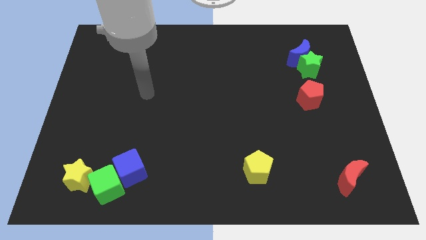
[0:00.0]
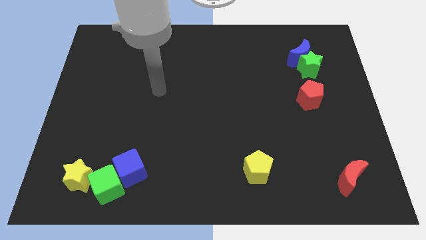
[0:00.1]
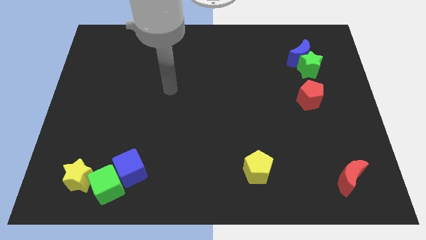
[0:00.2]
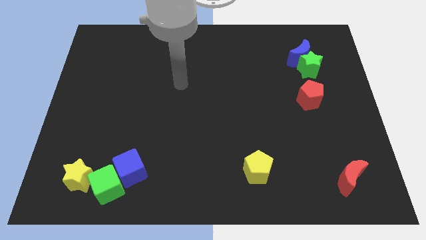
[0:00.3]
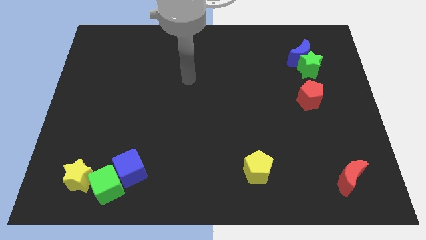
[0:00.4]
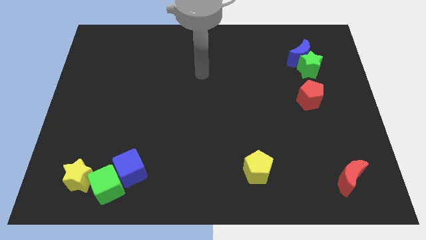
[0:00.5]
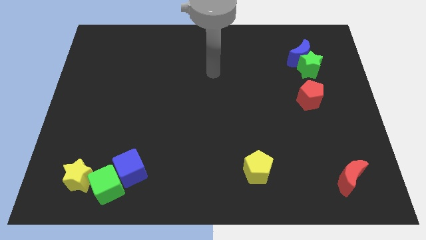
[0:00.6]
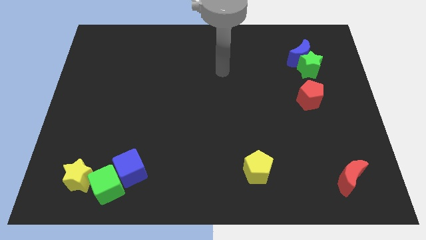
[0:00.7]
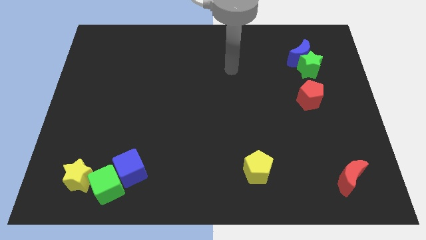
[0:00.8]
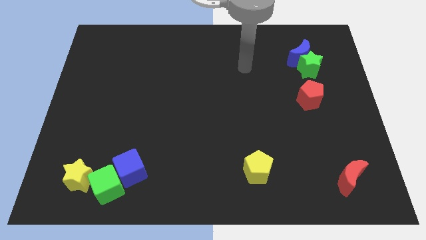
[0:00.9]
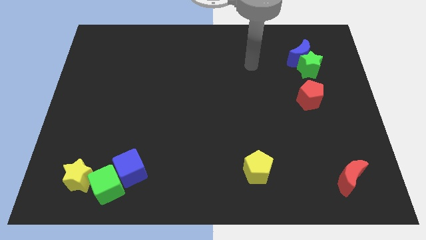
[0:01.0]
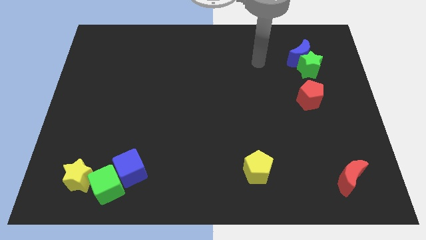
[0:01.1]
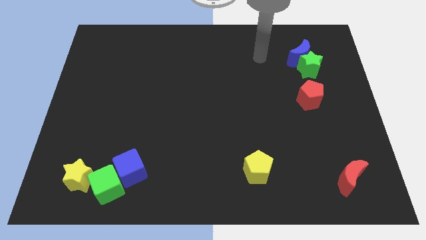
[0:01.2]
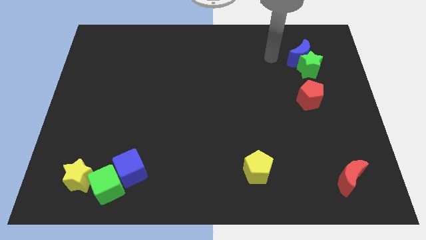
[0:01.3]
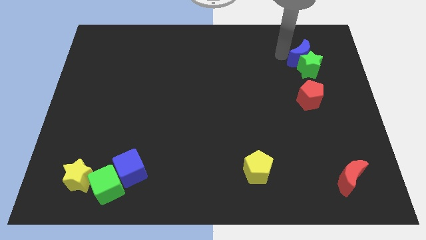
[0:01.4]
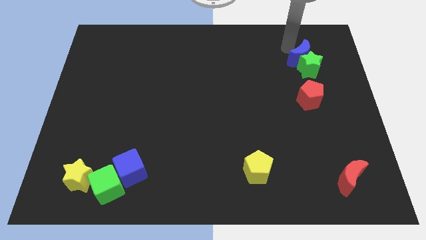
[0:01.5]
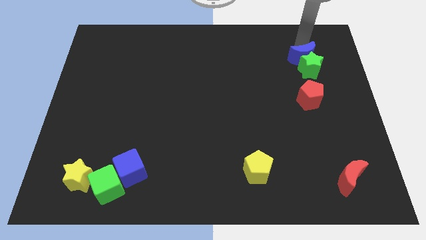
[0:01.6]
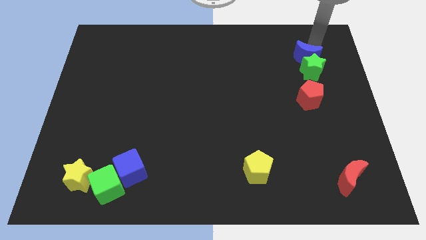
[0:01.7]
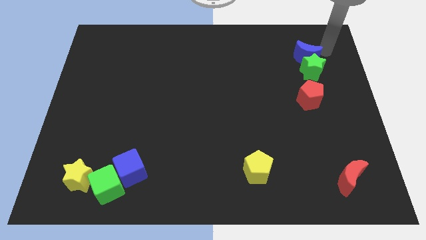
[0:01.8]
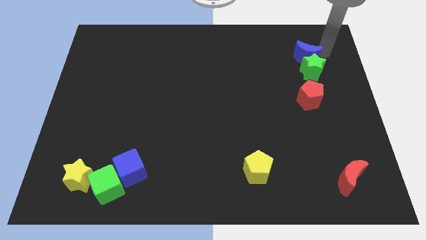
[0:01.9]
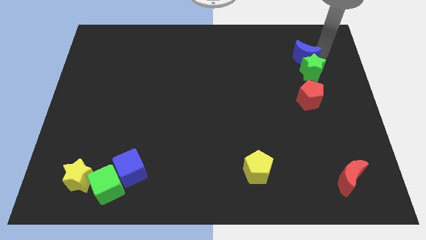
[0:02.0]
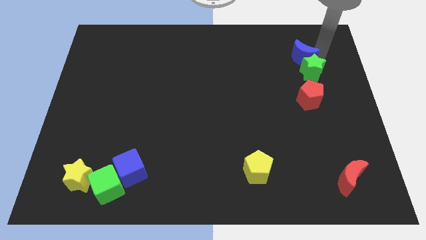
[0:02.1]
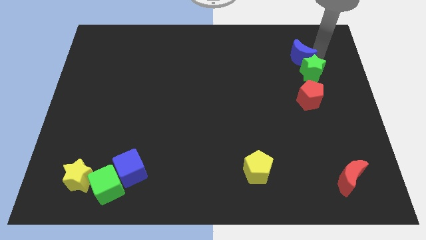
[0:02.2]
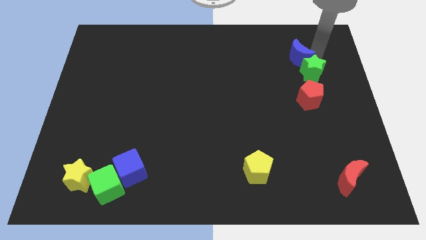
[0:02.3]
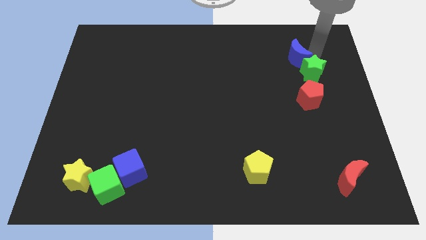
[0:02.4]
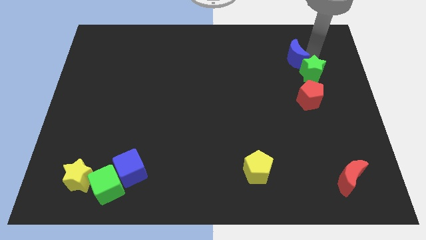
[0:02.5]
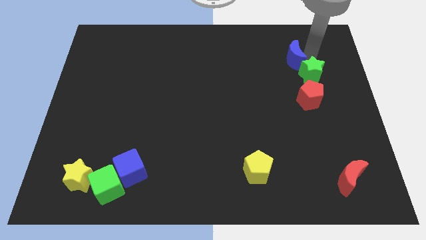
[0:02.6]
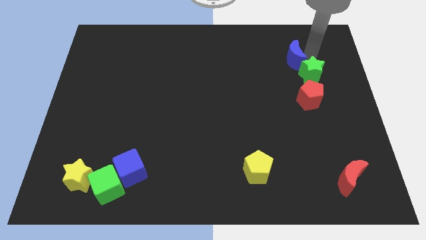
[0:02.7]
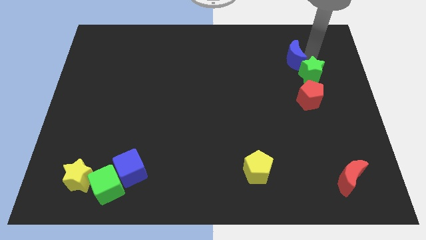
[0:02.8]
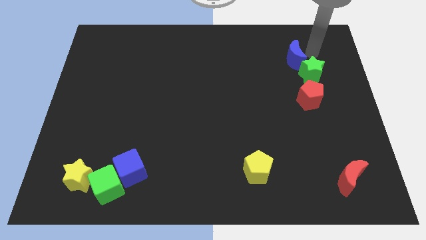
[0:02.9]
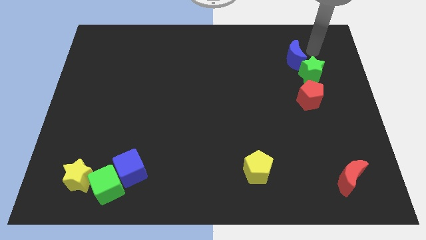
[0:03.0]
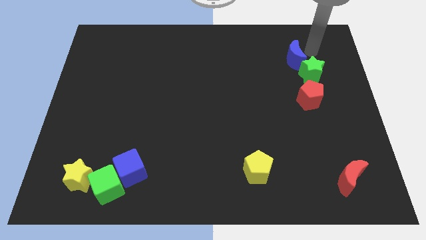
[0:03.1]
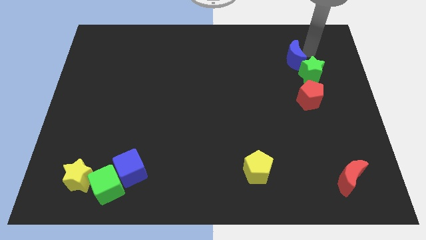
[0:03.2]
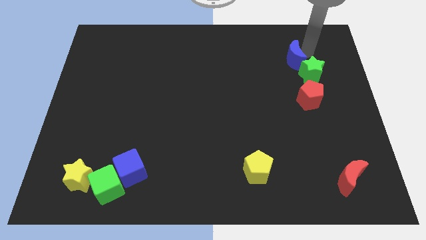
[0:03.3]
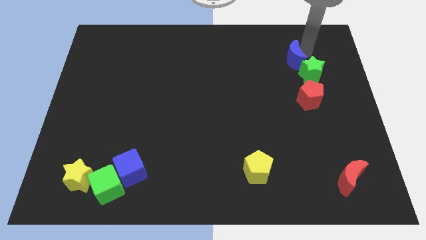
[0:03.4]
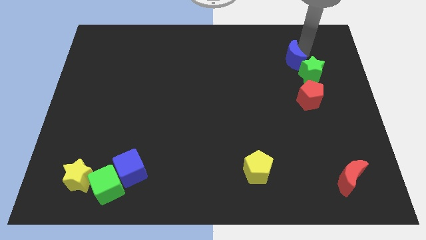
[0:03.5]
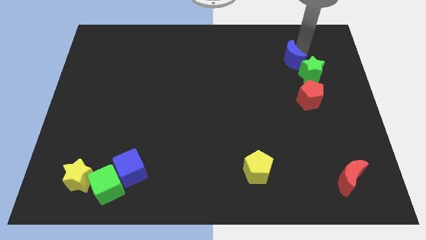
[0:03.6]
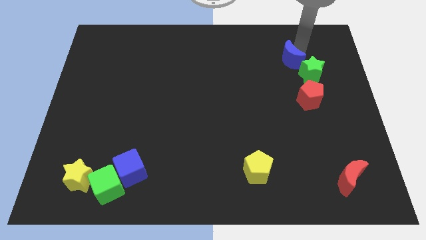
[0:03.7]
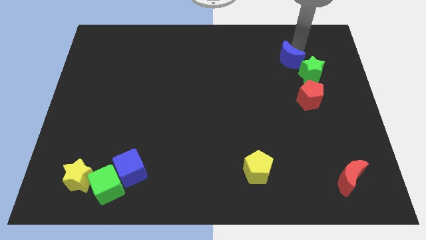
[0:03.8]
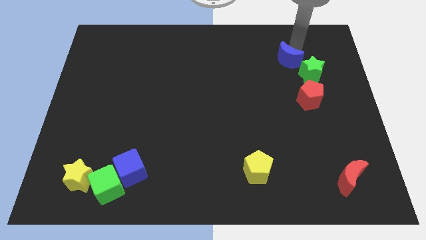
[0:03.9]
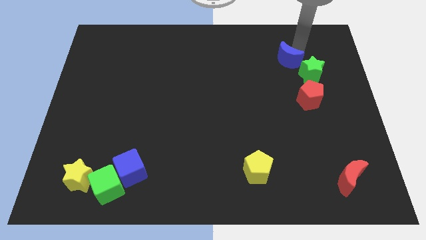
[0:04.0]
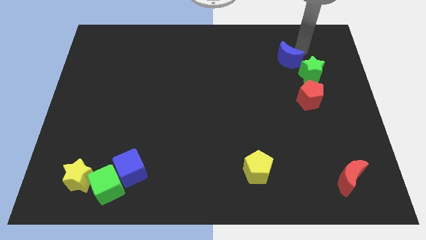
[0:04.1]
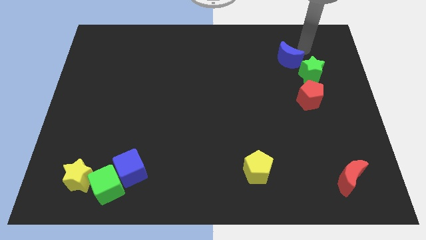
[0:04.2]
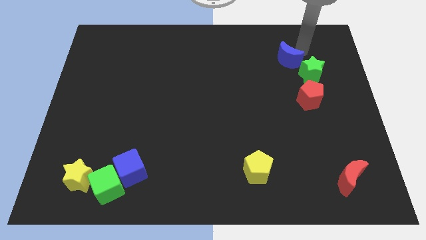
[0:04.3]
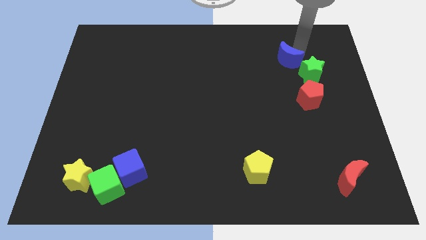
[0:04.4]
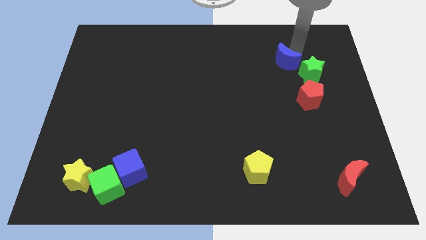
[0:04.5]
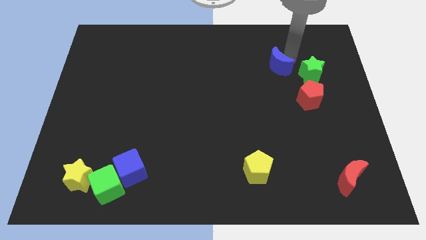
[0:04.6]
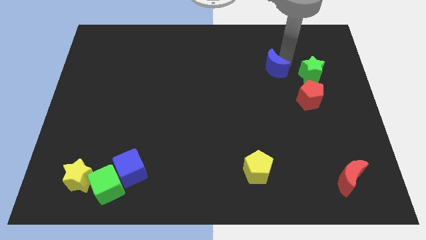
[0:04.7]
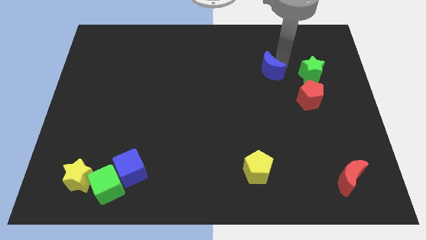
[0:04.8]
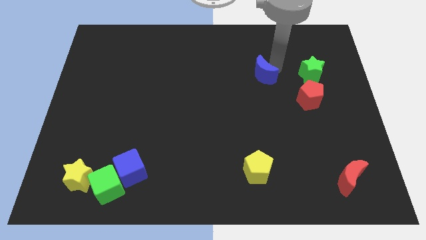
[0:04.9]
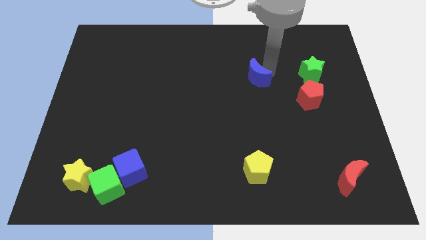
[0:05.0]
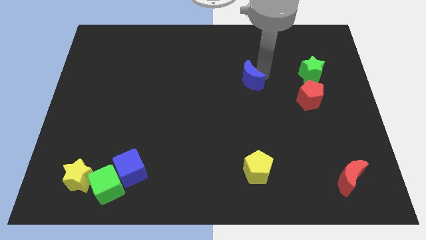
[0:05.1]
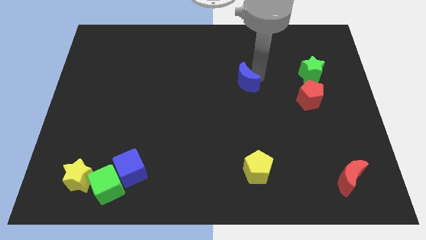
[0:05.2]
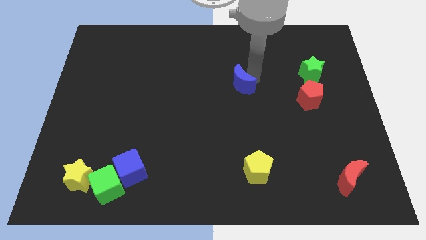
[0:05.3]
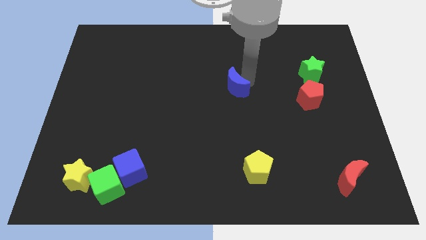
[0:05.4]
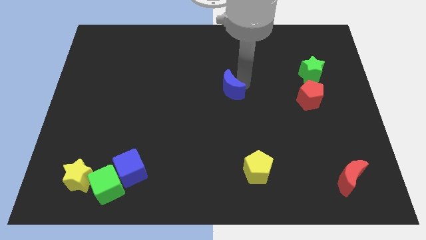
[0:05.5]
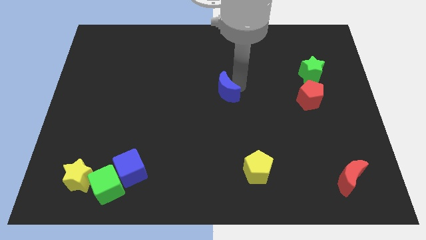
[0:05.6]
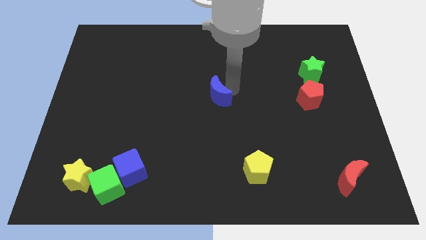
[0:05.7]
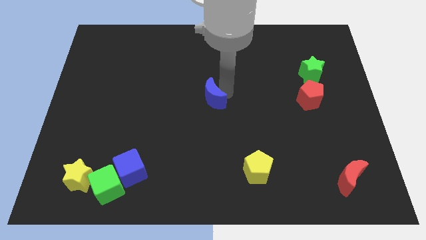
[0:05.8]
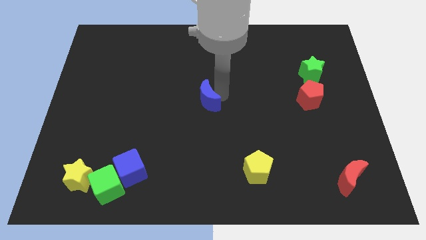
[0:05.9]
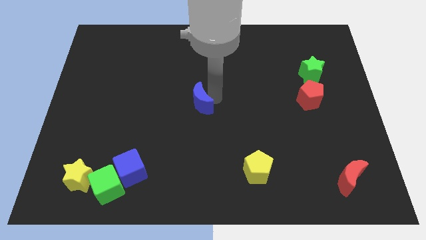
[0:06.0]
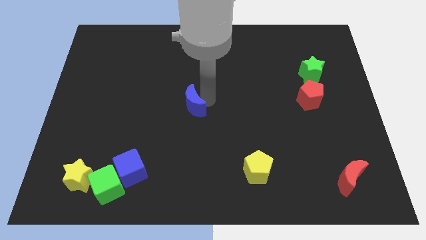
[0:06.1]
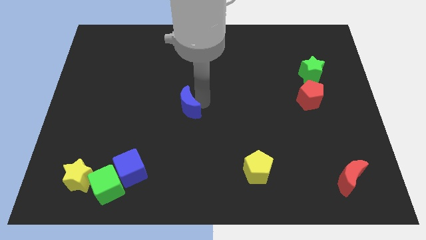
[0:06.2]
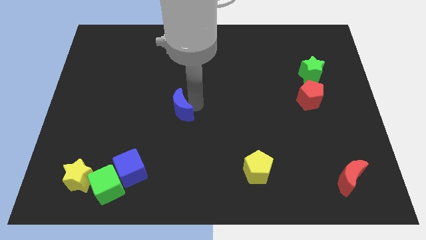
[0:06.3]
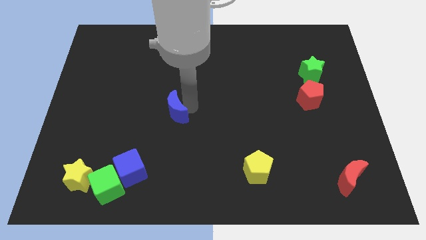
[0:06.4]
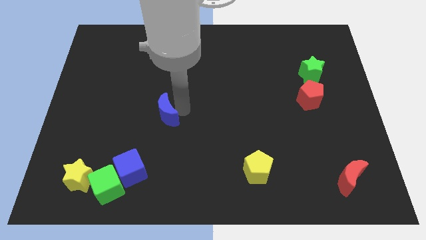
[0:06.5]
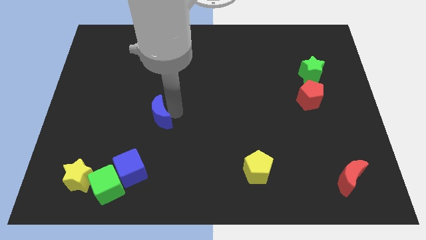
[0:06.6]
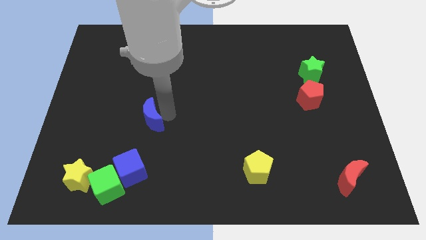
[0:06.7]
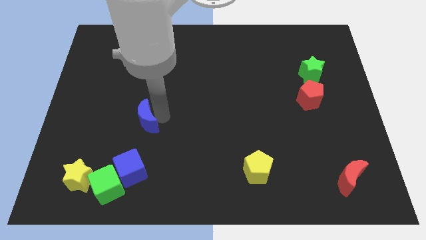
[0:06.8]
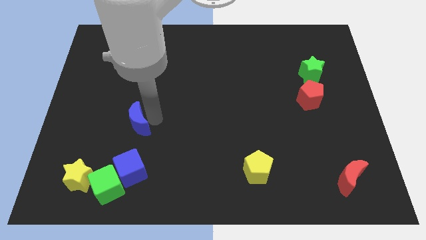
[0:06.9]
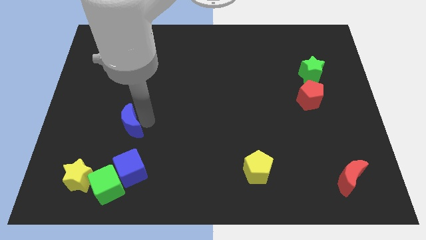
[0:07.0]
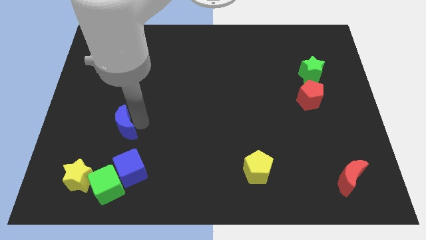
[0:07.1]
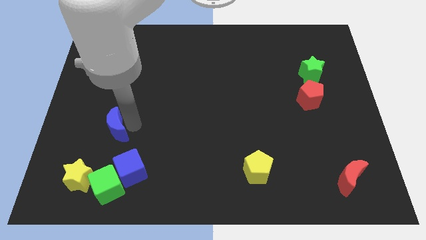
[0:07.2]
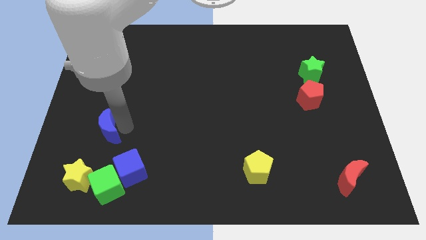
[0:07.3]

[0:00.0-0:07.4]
move the blue moon to the top side of the yellow star
